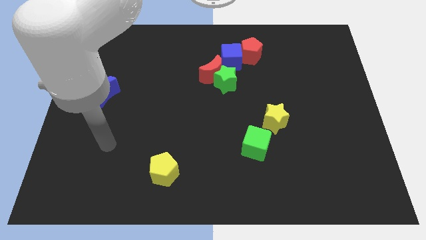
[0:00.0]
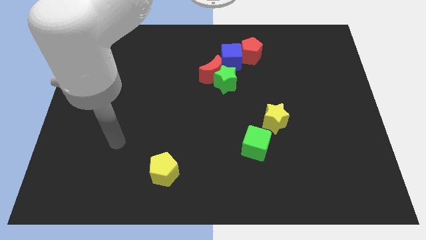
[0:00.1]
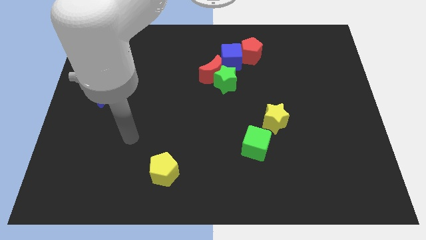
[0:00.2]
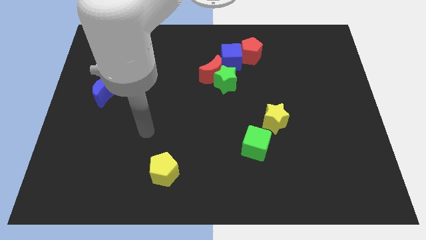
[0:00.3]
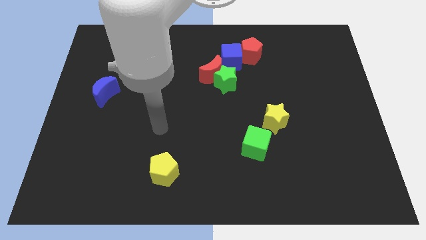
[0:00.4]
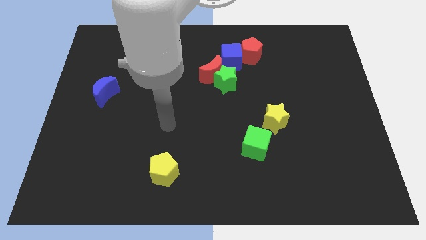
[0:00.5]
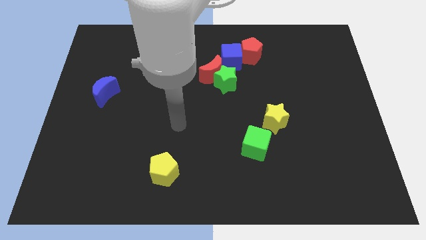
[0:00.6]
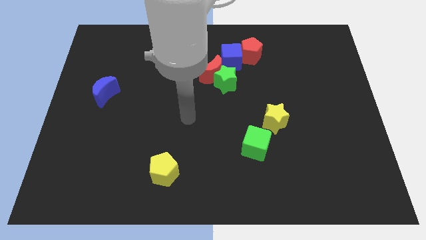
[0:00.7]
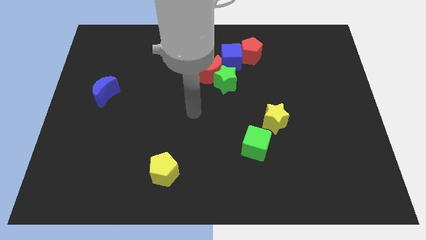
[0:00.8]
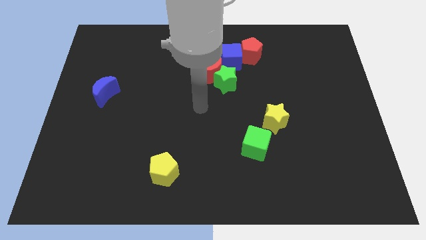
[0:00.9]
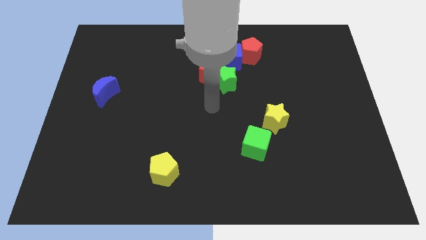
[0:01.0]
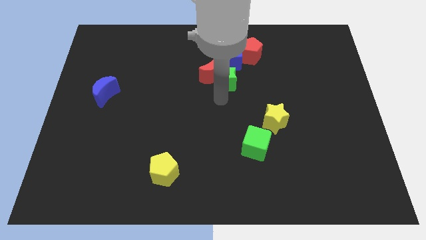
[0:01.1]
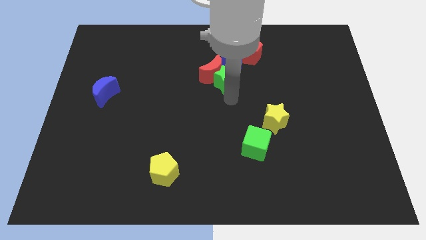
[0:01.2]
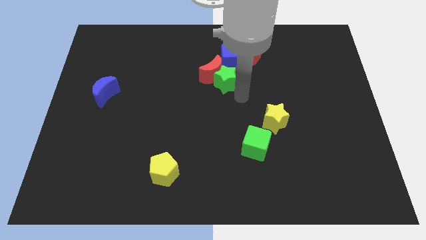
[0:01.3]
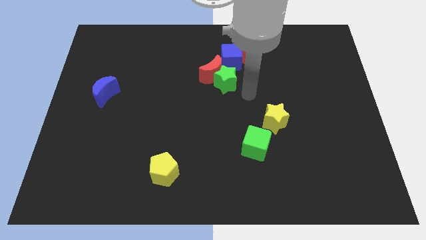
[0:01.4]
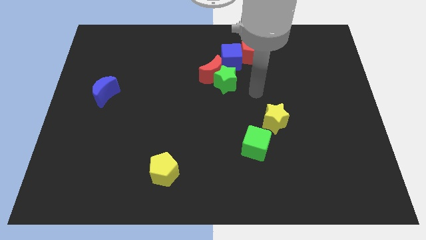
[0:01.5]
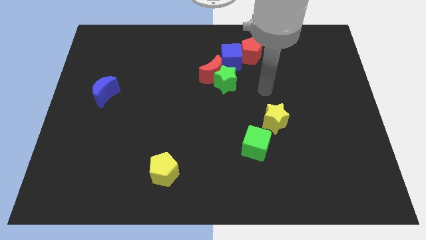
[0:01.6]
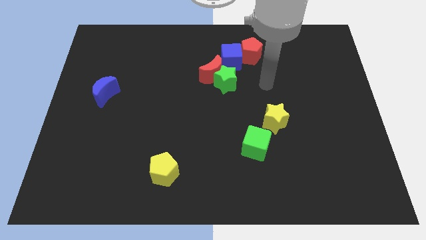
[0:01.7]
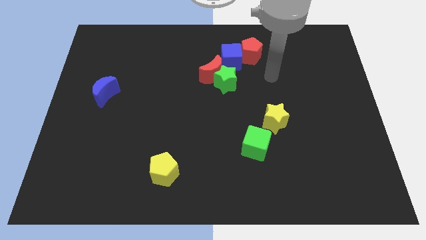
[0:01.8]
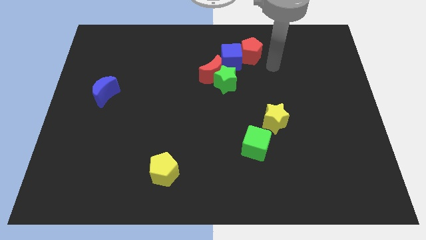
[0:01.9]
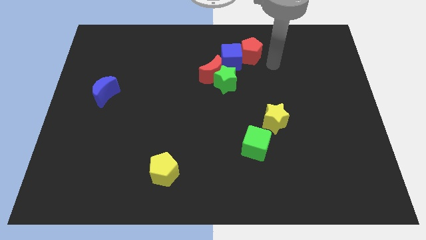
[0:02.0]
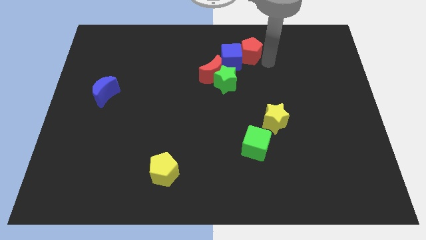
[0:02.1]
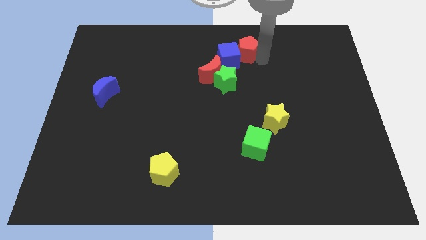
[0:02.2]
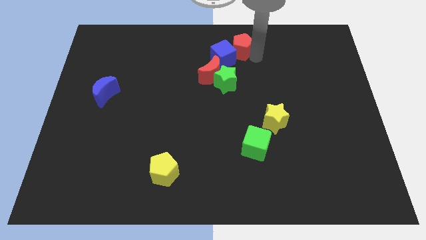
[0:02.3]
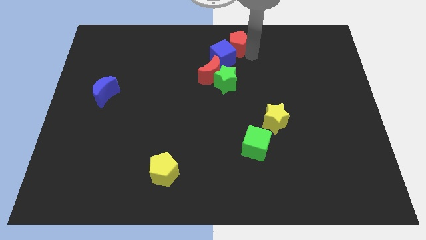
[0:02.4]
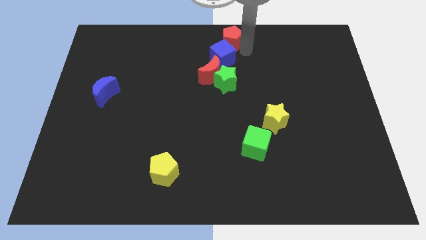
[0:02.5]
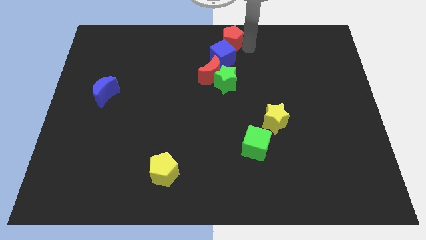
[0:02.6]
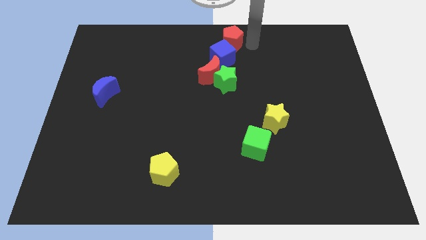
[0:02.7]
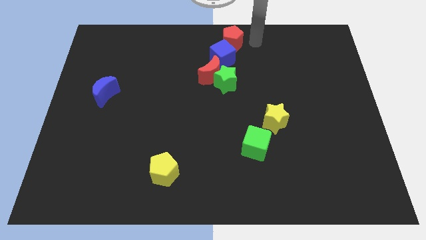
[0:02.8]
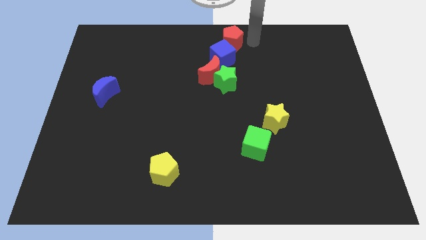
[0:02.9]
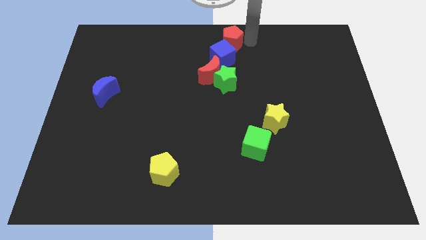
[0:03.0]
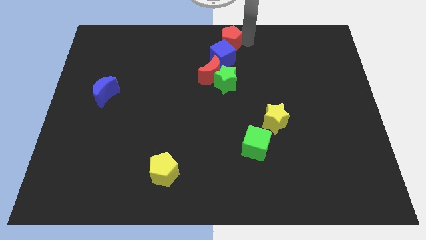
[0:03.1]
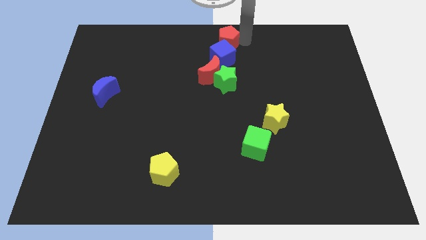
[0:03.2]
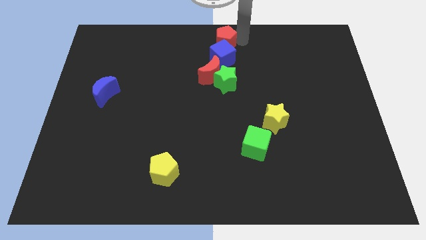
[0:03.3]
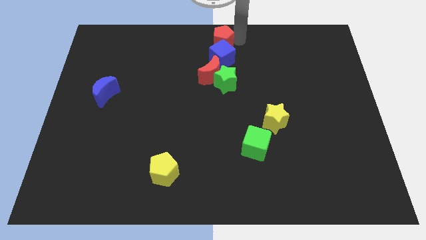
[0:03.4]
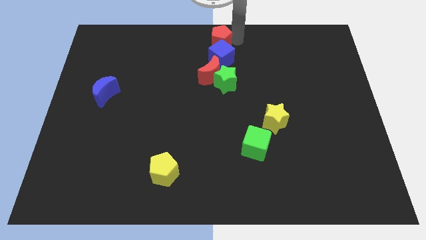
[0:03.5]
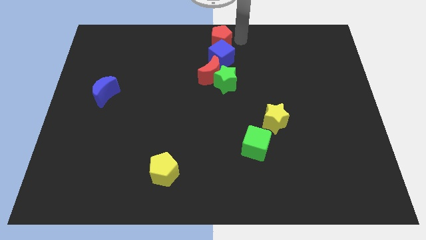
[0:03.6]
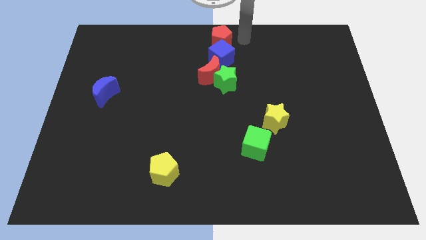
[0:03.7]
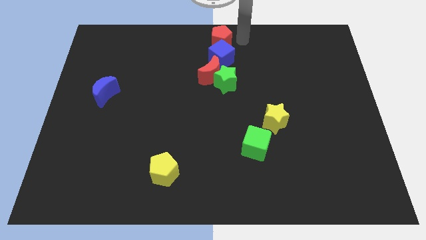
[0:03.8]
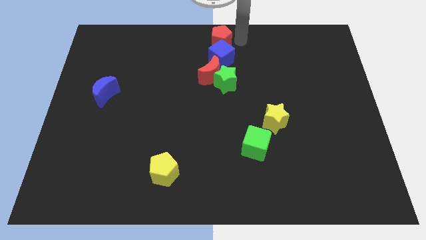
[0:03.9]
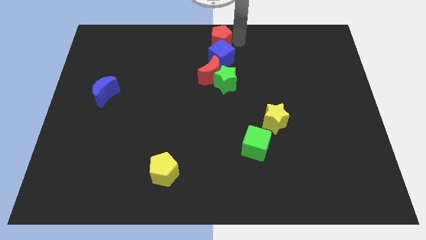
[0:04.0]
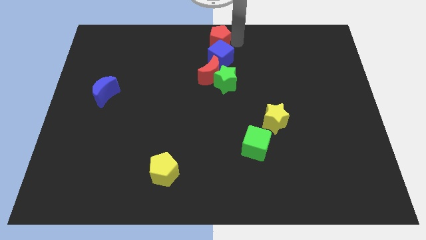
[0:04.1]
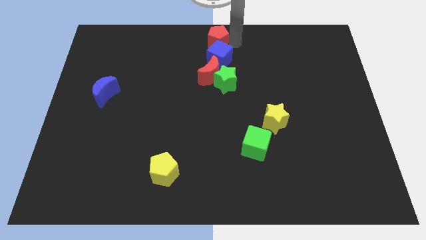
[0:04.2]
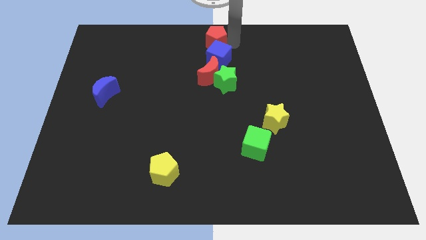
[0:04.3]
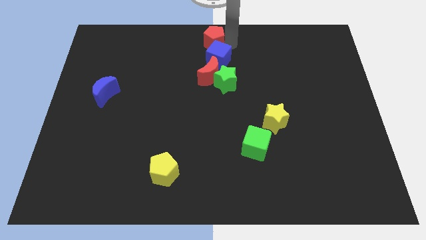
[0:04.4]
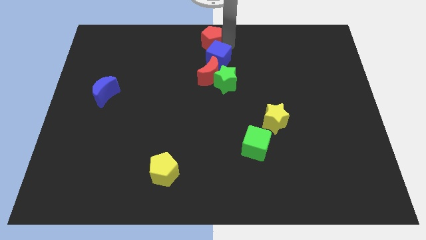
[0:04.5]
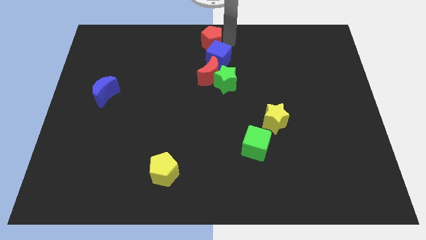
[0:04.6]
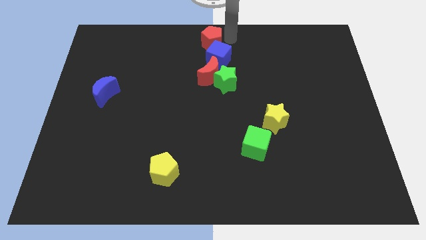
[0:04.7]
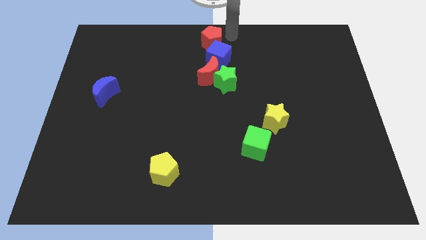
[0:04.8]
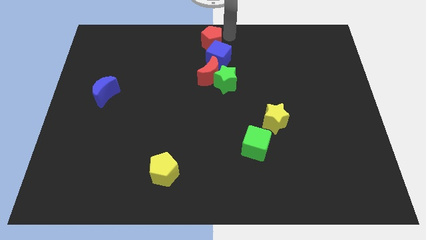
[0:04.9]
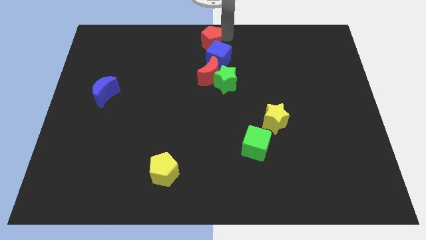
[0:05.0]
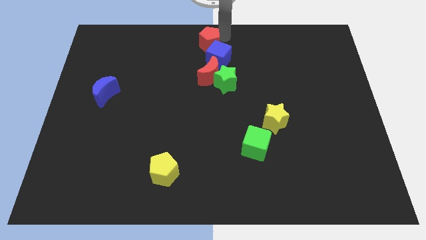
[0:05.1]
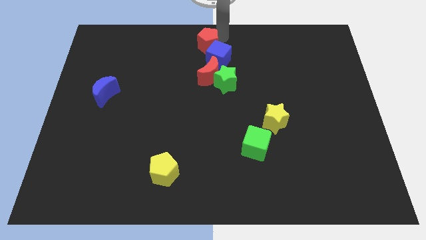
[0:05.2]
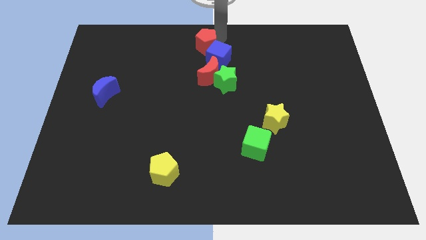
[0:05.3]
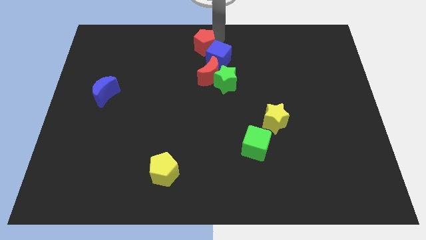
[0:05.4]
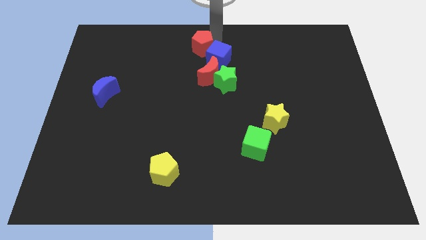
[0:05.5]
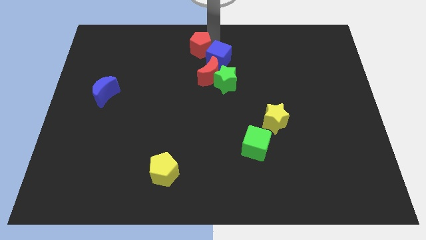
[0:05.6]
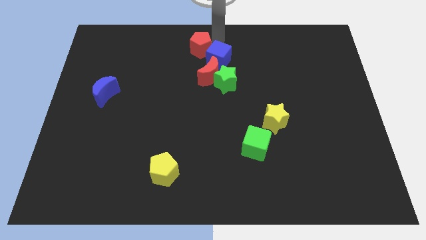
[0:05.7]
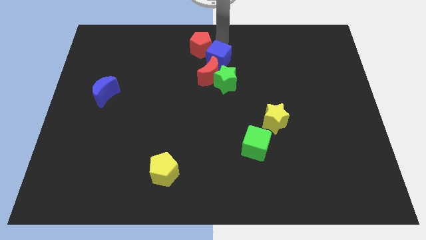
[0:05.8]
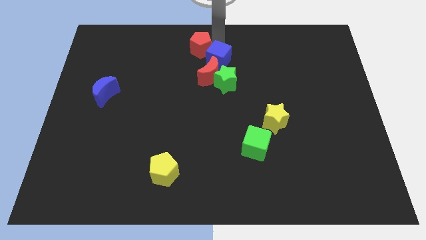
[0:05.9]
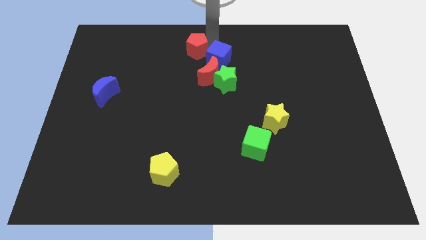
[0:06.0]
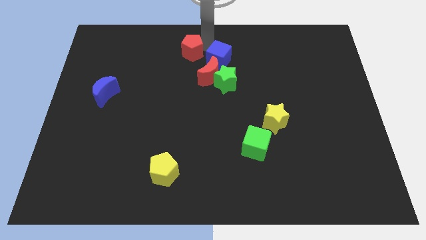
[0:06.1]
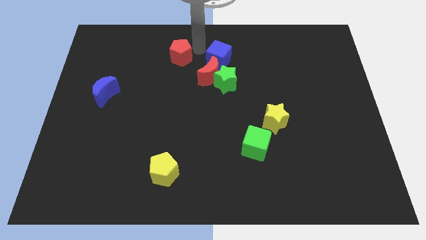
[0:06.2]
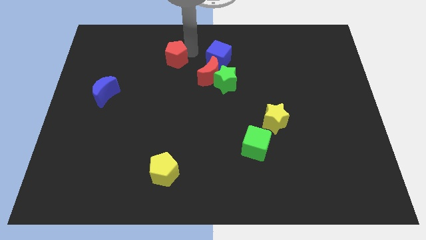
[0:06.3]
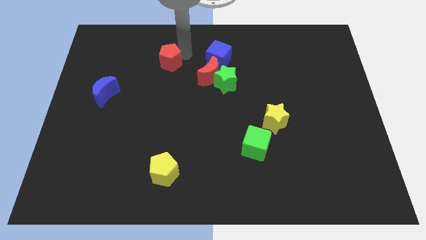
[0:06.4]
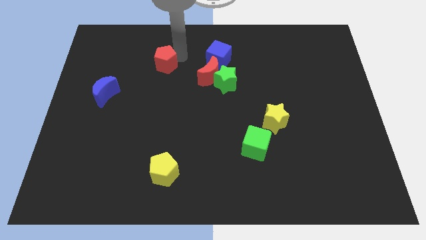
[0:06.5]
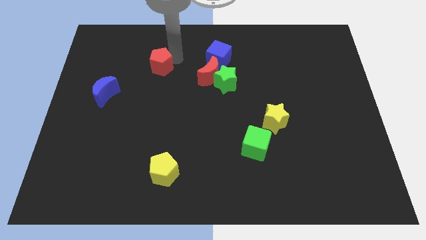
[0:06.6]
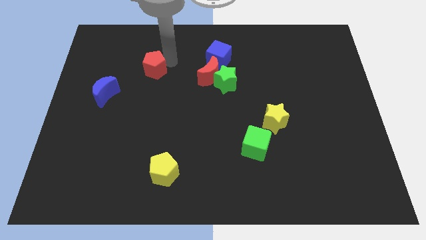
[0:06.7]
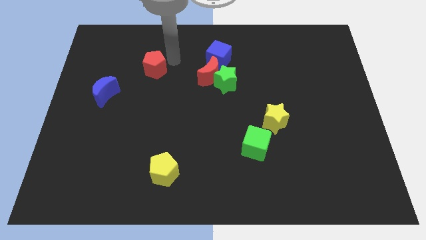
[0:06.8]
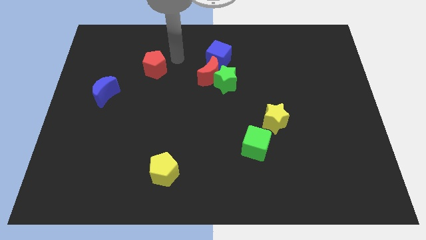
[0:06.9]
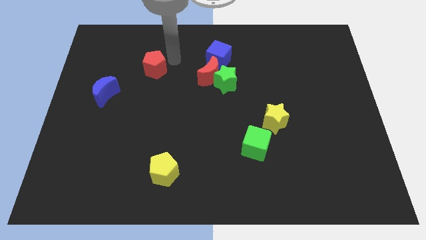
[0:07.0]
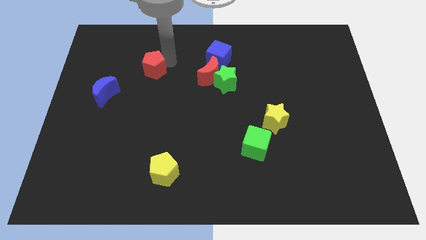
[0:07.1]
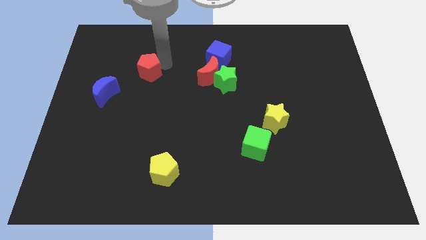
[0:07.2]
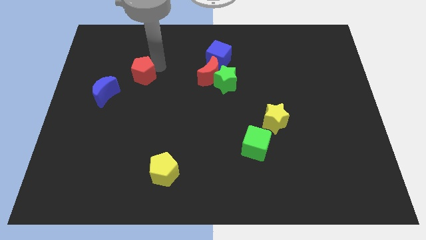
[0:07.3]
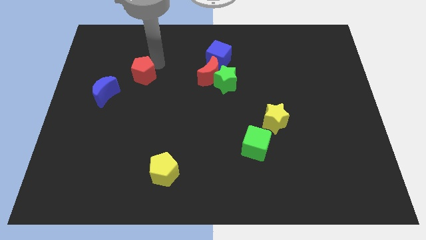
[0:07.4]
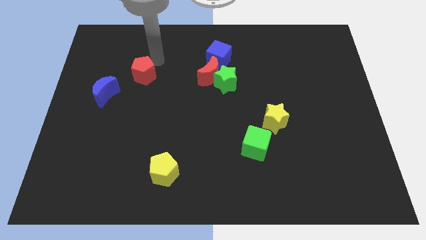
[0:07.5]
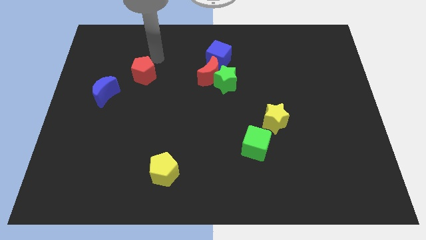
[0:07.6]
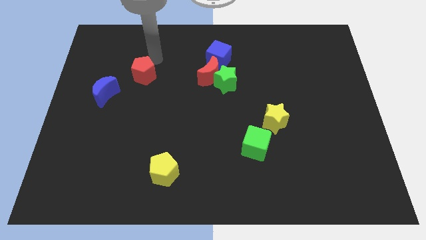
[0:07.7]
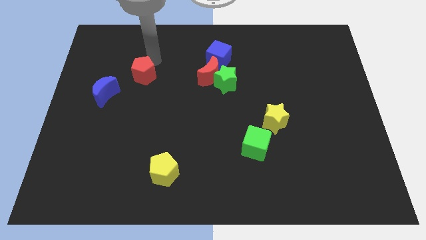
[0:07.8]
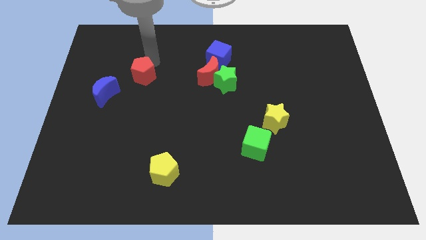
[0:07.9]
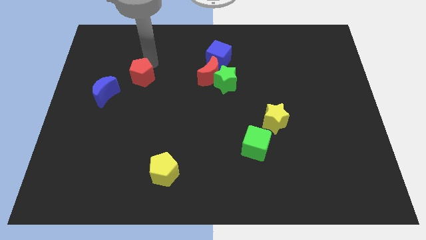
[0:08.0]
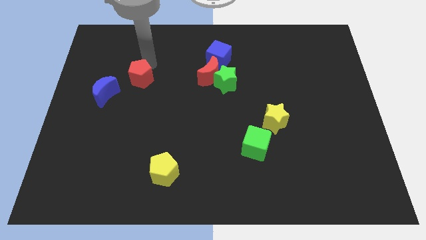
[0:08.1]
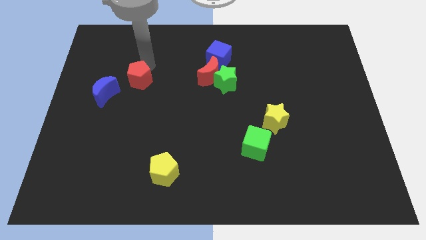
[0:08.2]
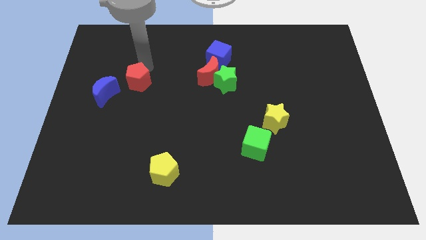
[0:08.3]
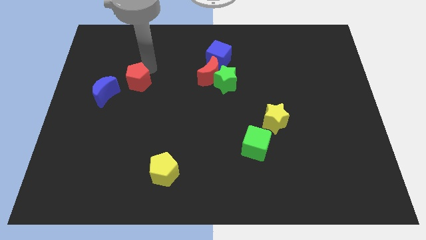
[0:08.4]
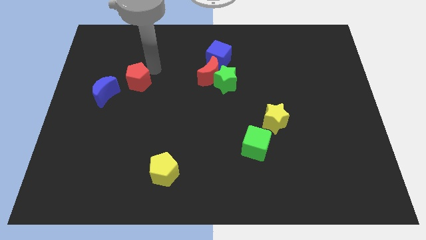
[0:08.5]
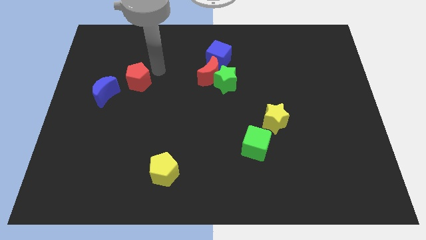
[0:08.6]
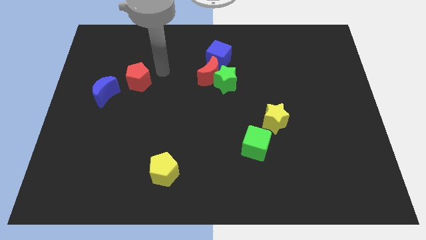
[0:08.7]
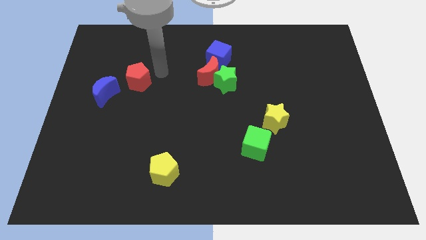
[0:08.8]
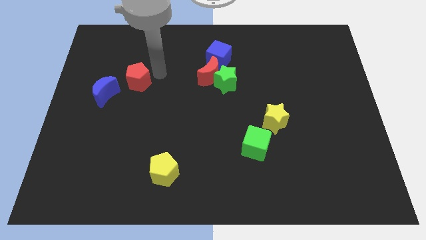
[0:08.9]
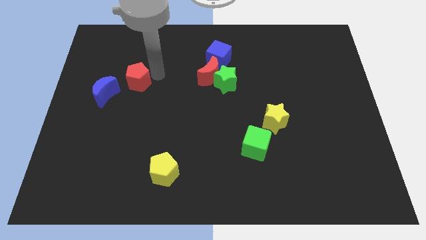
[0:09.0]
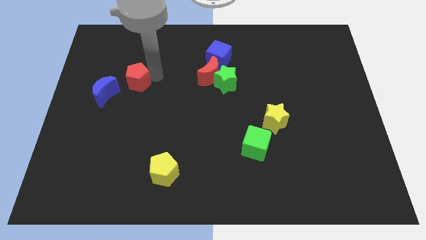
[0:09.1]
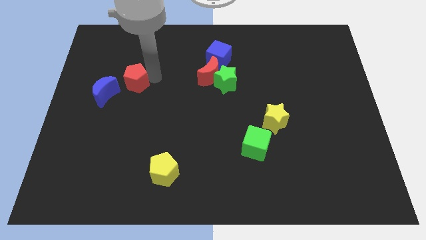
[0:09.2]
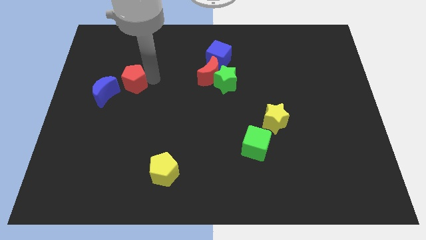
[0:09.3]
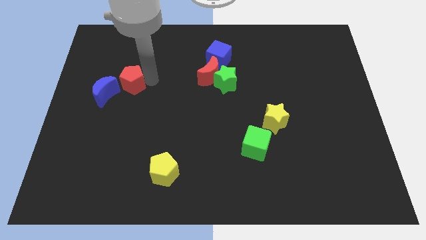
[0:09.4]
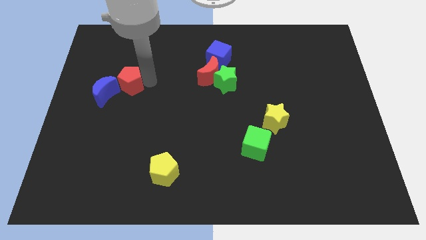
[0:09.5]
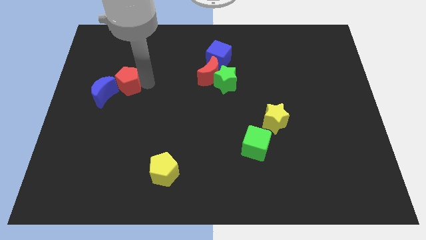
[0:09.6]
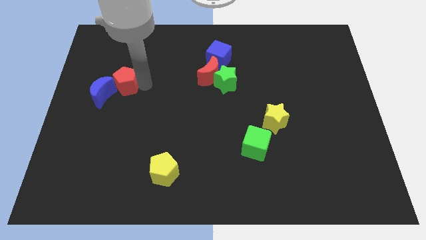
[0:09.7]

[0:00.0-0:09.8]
slide the red pentagon close to the blue moon
